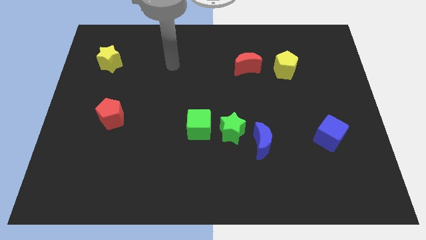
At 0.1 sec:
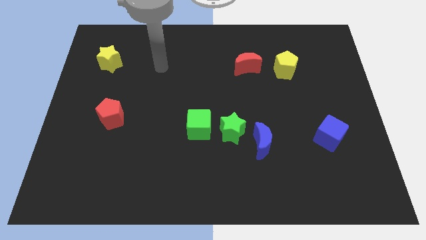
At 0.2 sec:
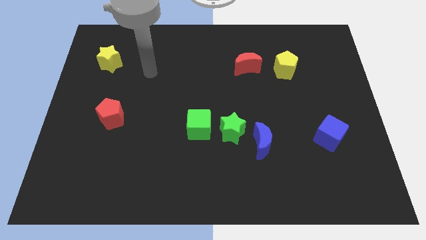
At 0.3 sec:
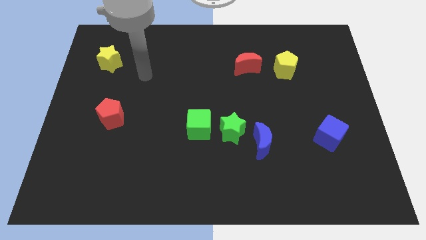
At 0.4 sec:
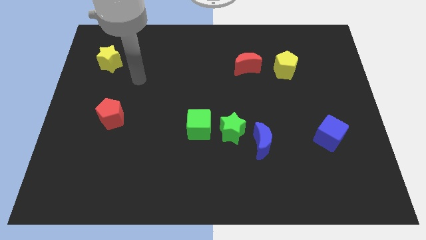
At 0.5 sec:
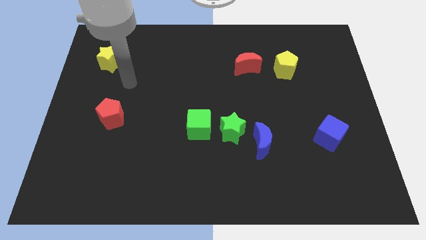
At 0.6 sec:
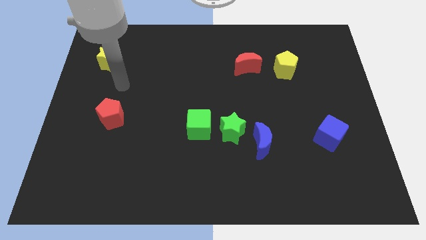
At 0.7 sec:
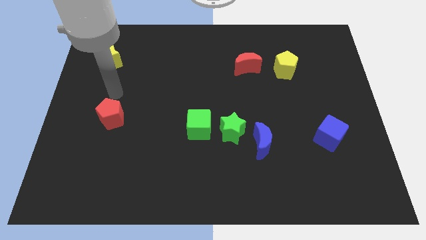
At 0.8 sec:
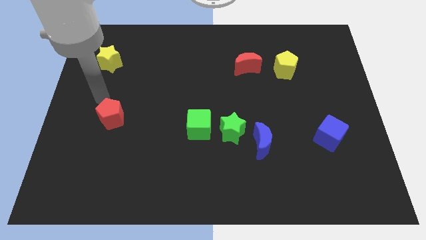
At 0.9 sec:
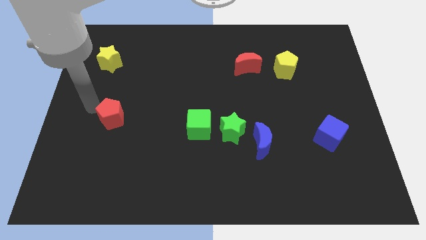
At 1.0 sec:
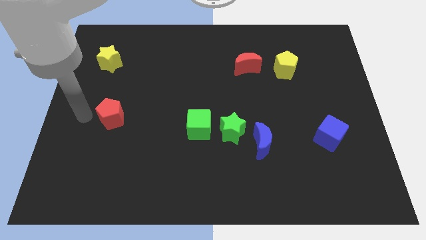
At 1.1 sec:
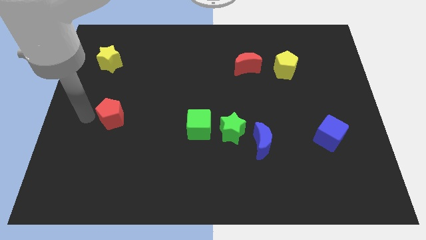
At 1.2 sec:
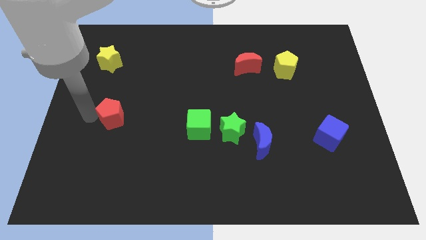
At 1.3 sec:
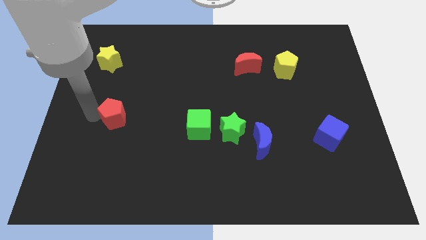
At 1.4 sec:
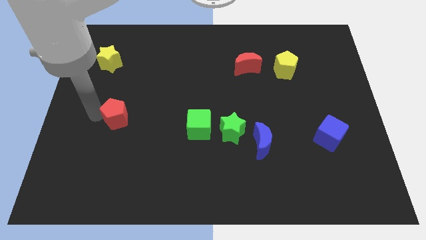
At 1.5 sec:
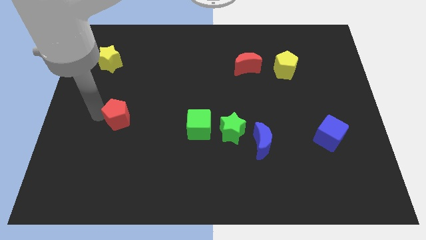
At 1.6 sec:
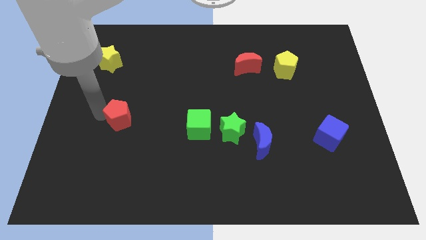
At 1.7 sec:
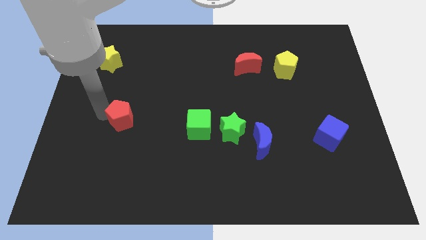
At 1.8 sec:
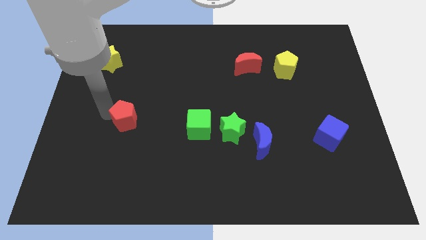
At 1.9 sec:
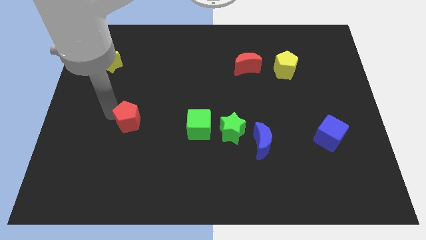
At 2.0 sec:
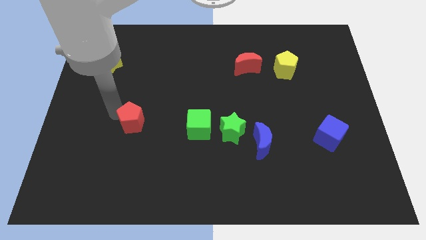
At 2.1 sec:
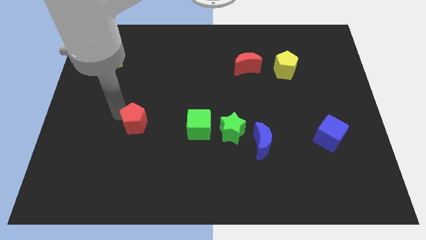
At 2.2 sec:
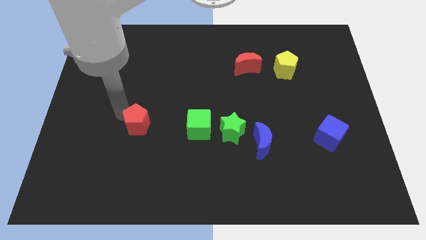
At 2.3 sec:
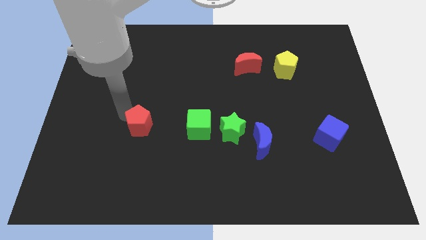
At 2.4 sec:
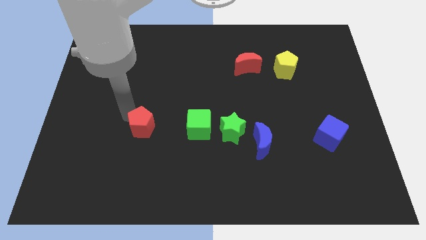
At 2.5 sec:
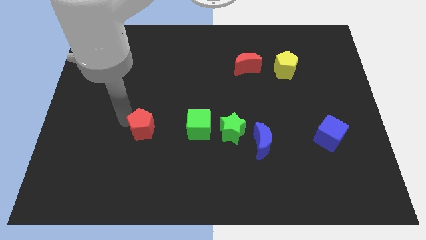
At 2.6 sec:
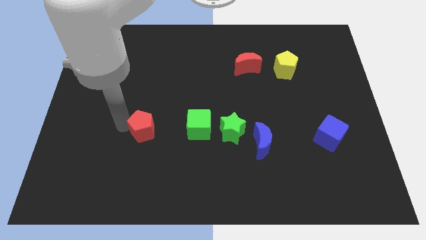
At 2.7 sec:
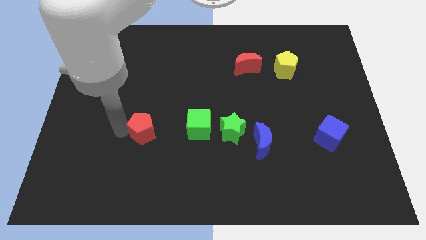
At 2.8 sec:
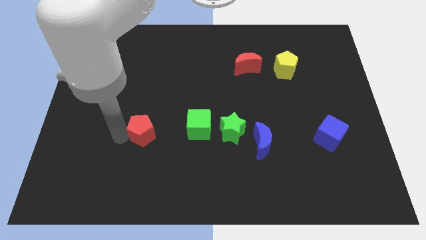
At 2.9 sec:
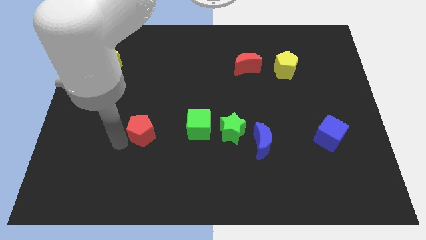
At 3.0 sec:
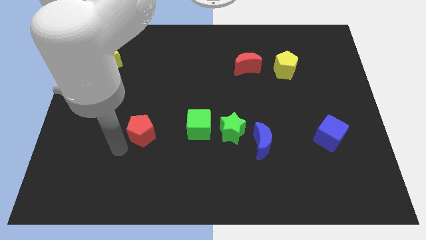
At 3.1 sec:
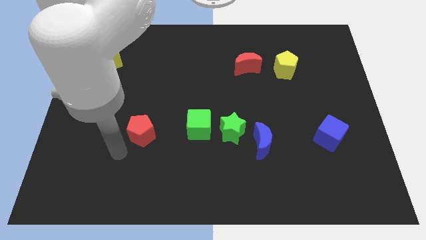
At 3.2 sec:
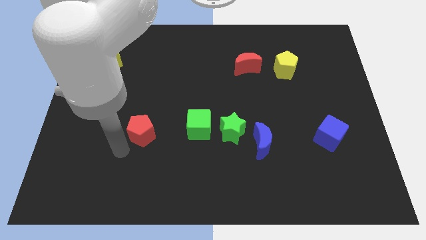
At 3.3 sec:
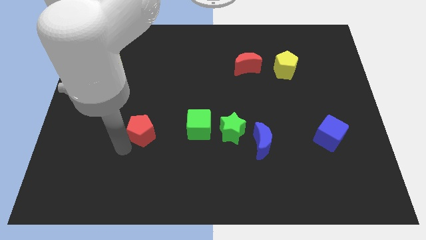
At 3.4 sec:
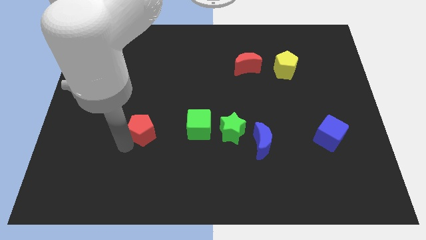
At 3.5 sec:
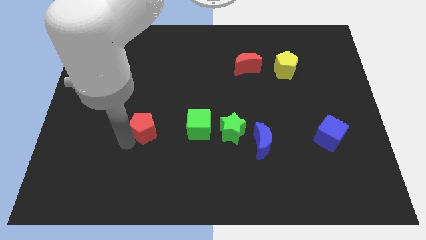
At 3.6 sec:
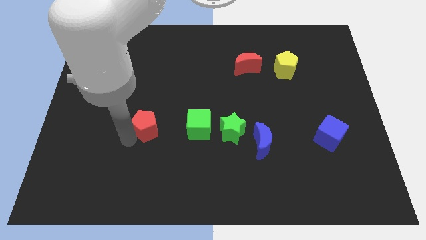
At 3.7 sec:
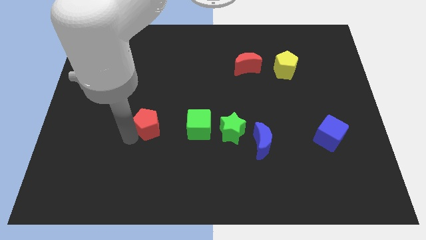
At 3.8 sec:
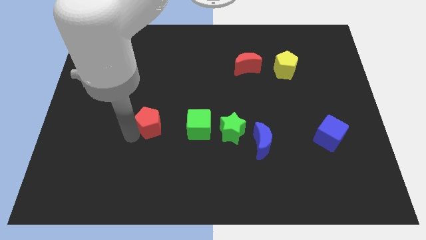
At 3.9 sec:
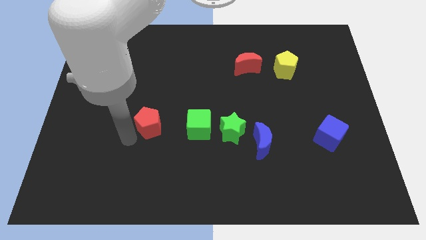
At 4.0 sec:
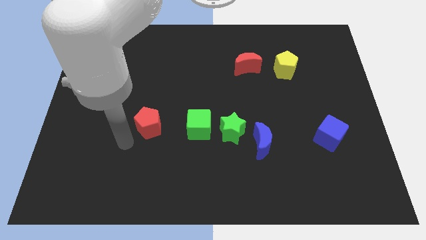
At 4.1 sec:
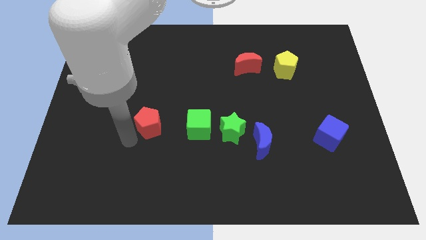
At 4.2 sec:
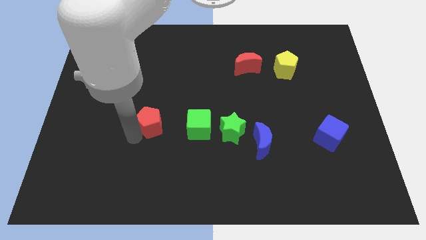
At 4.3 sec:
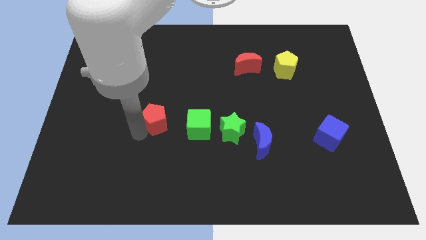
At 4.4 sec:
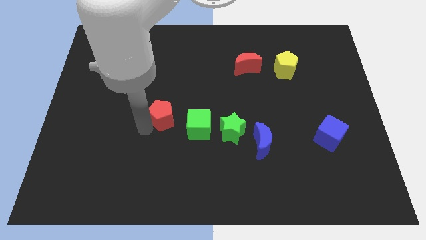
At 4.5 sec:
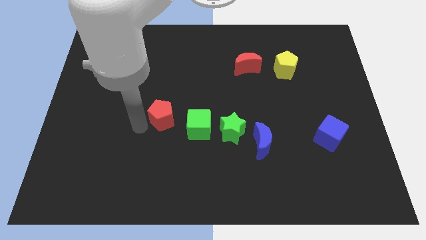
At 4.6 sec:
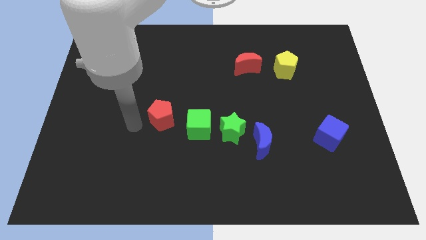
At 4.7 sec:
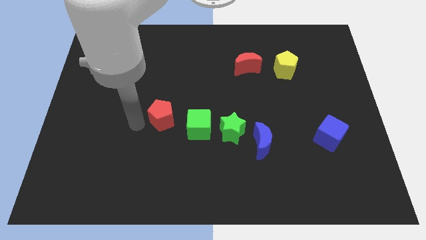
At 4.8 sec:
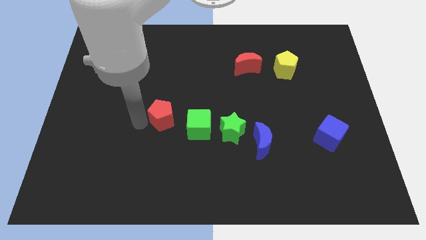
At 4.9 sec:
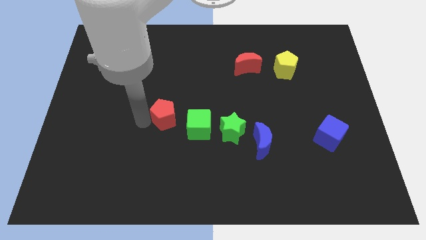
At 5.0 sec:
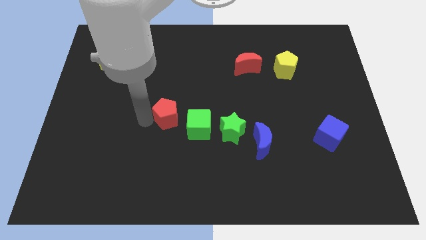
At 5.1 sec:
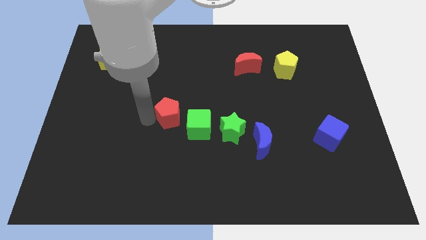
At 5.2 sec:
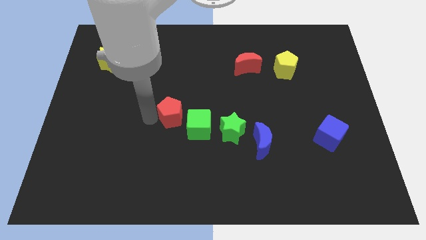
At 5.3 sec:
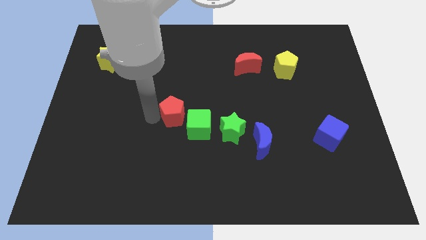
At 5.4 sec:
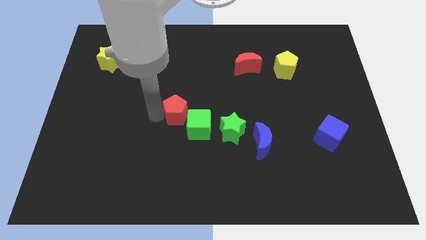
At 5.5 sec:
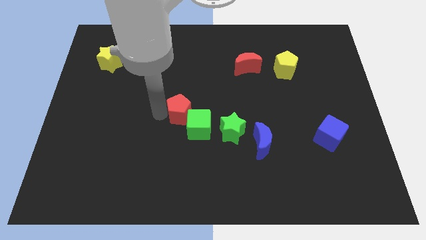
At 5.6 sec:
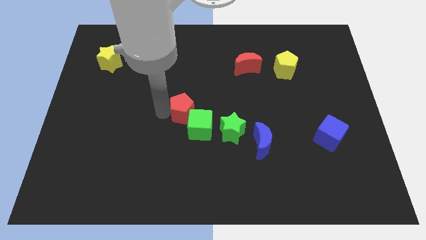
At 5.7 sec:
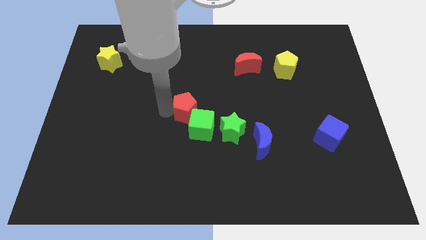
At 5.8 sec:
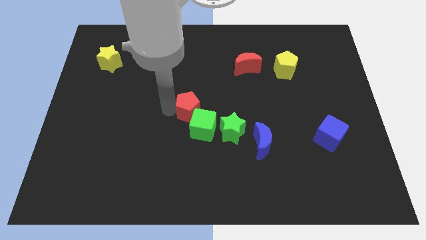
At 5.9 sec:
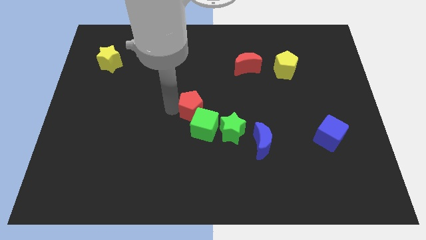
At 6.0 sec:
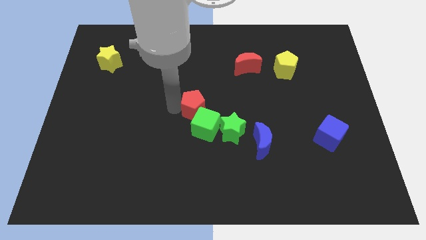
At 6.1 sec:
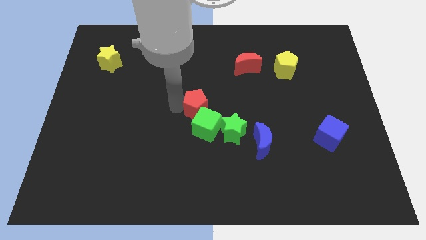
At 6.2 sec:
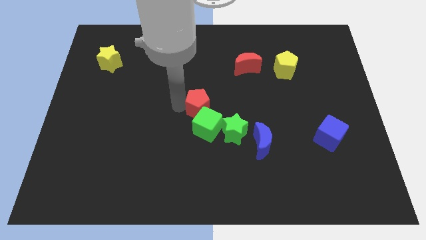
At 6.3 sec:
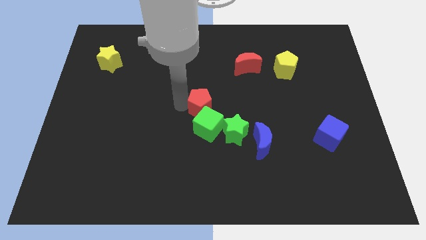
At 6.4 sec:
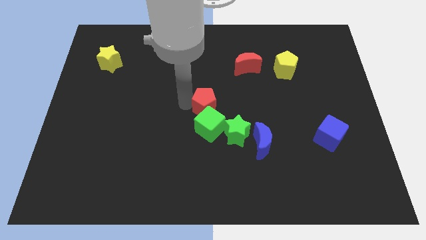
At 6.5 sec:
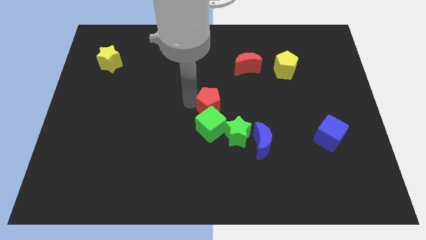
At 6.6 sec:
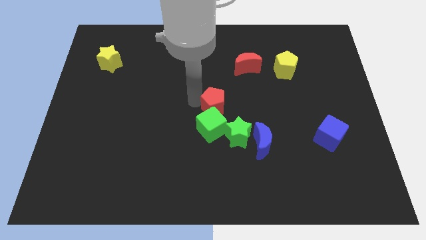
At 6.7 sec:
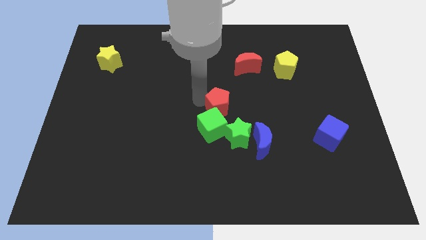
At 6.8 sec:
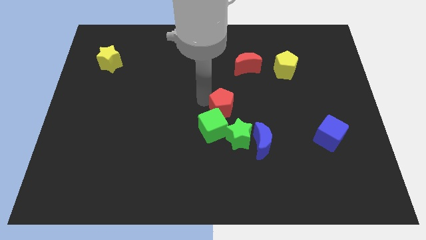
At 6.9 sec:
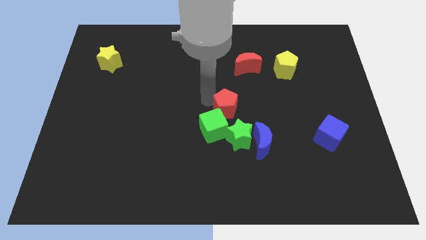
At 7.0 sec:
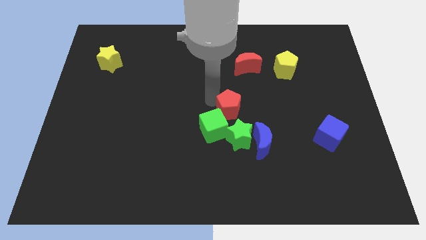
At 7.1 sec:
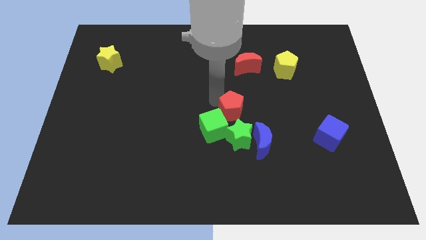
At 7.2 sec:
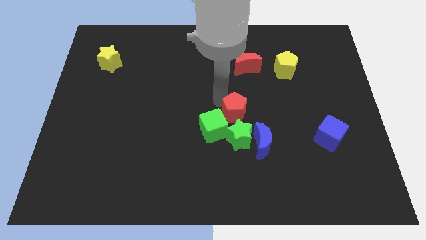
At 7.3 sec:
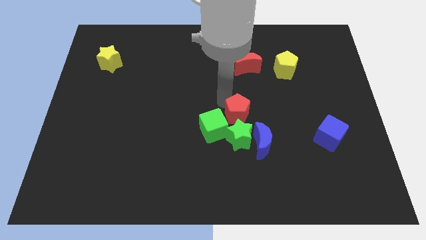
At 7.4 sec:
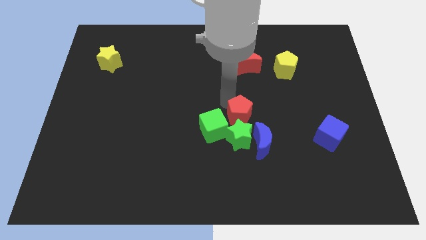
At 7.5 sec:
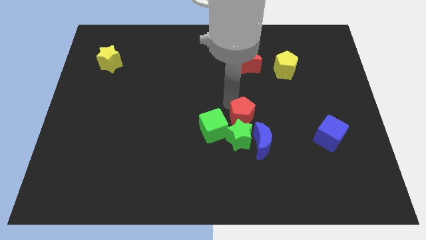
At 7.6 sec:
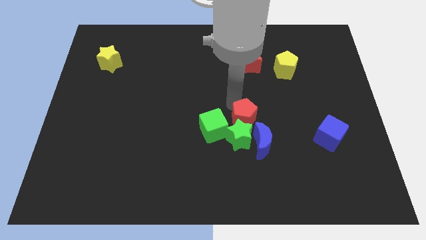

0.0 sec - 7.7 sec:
move the red pentagon close to the green star
